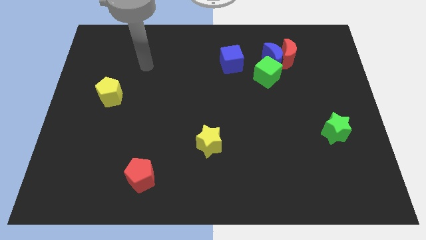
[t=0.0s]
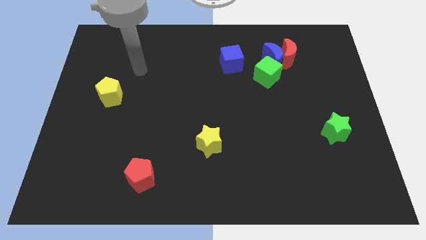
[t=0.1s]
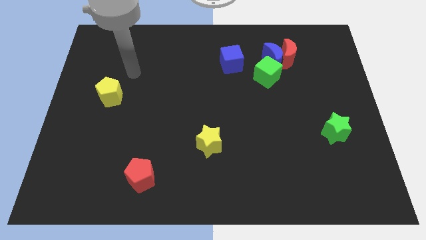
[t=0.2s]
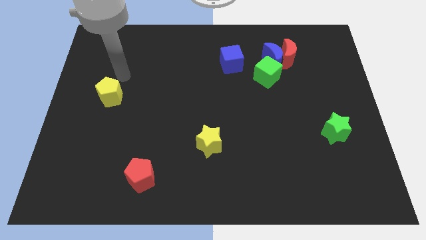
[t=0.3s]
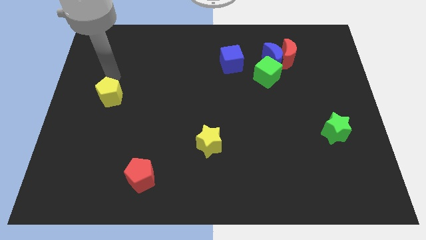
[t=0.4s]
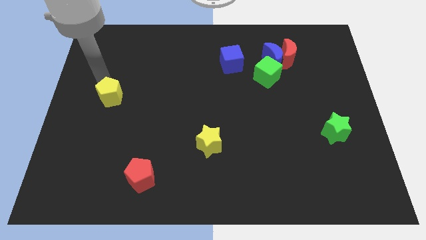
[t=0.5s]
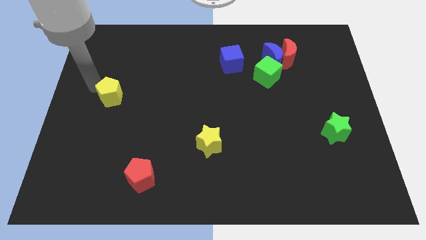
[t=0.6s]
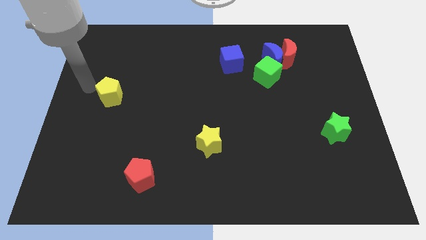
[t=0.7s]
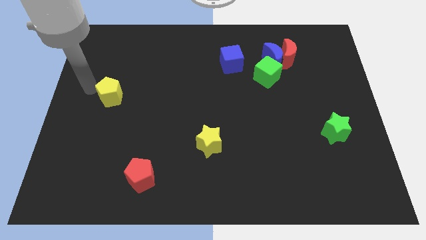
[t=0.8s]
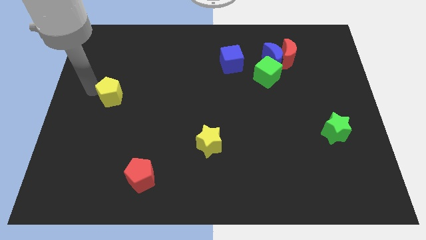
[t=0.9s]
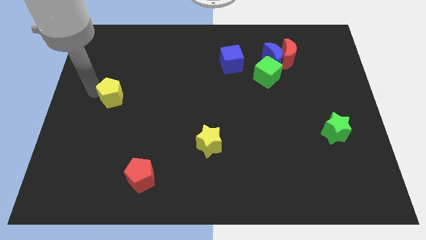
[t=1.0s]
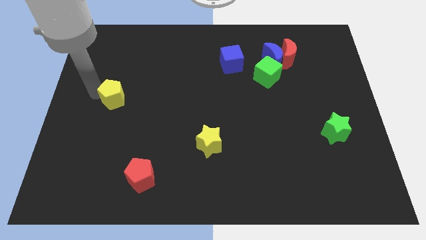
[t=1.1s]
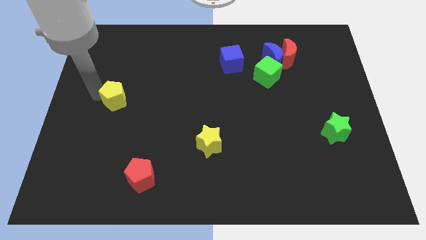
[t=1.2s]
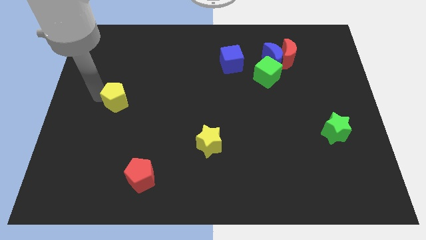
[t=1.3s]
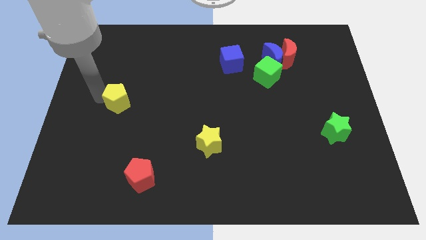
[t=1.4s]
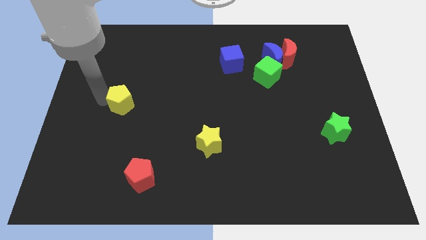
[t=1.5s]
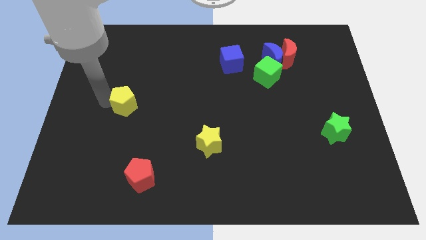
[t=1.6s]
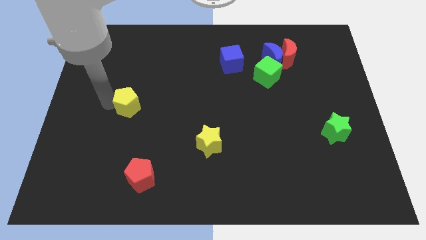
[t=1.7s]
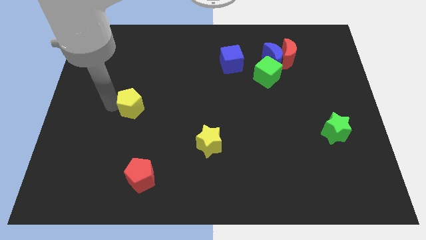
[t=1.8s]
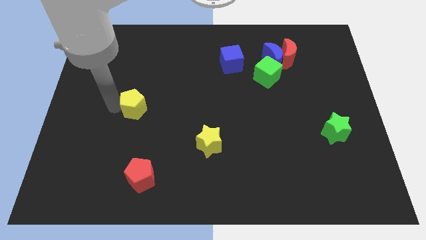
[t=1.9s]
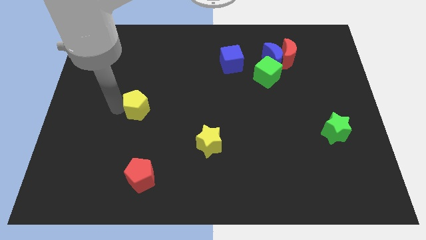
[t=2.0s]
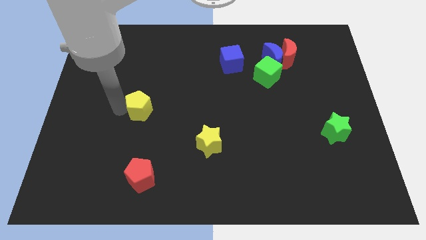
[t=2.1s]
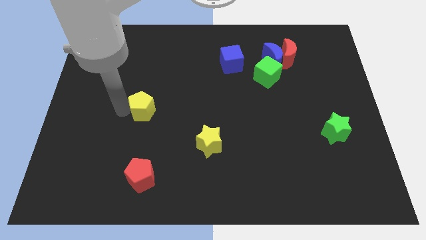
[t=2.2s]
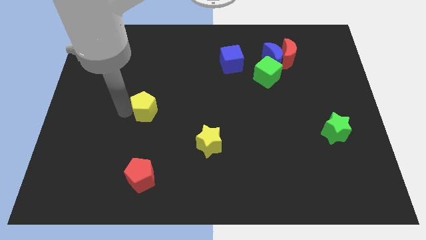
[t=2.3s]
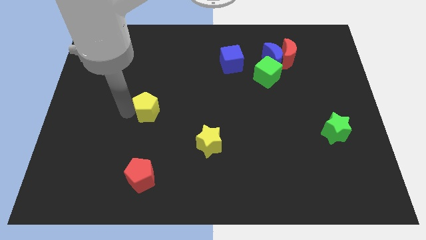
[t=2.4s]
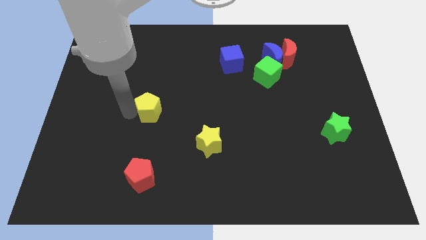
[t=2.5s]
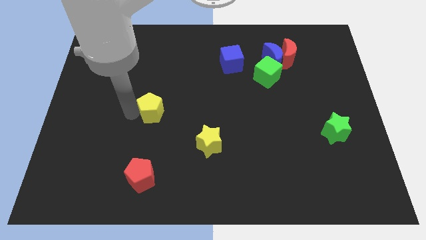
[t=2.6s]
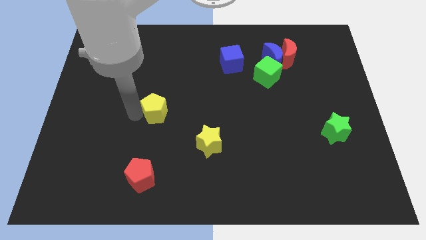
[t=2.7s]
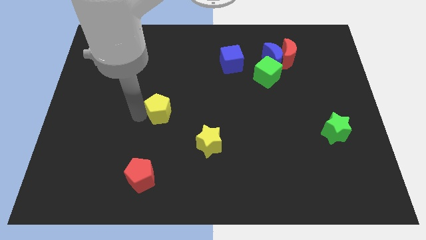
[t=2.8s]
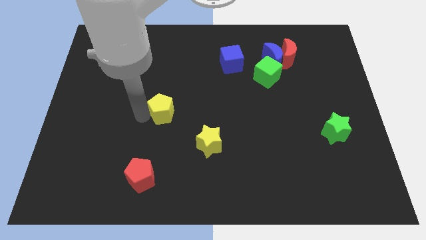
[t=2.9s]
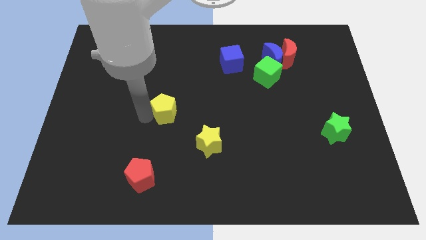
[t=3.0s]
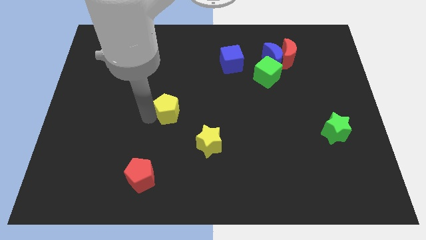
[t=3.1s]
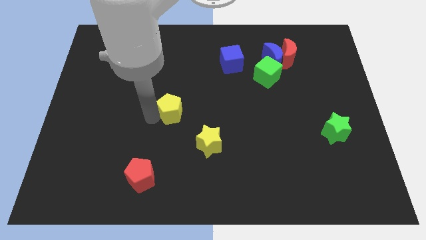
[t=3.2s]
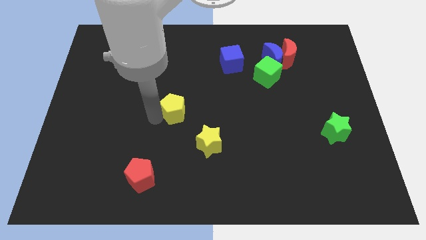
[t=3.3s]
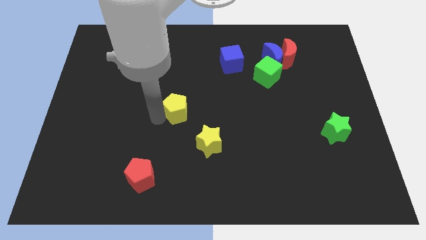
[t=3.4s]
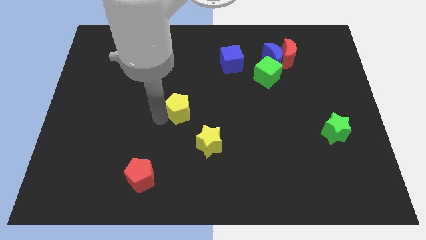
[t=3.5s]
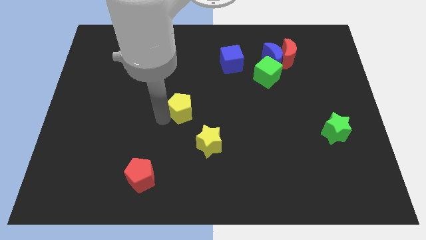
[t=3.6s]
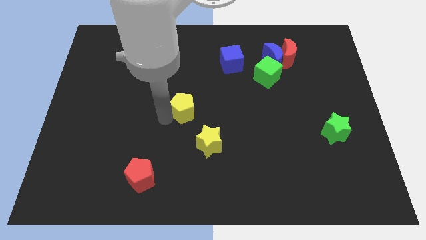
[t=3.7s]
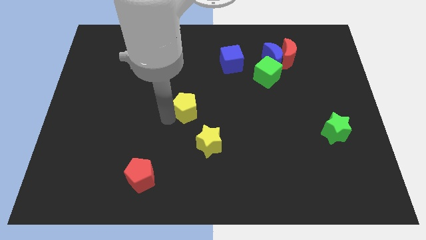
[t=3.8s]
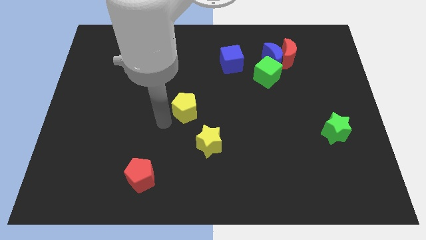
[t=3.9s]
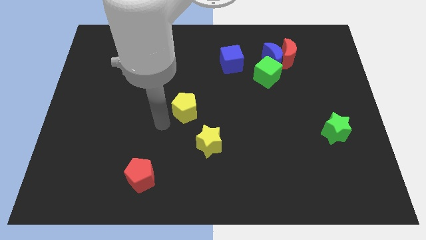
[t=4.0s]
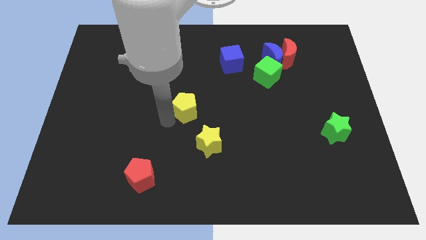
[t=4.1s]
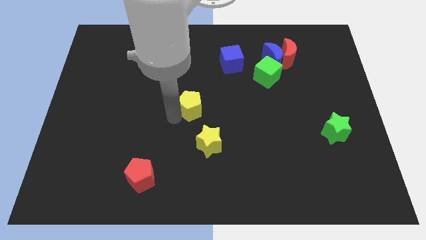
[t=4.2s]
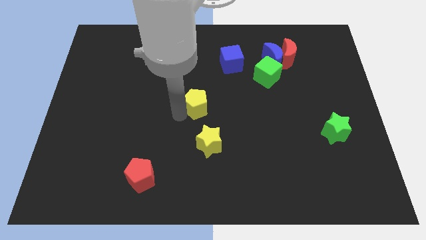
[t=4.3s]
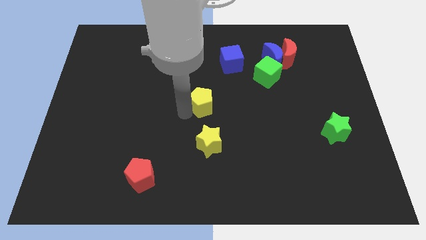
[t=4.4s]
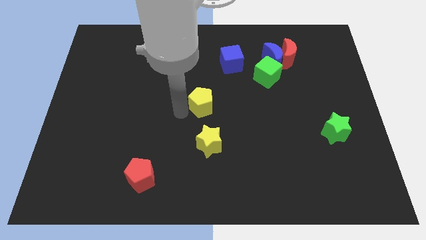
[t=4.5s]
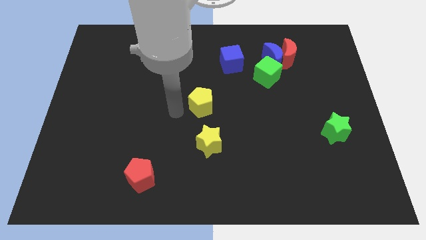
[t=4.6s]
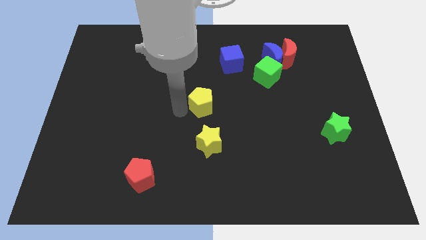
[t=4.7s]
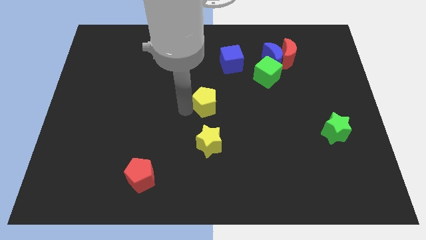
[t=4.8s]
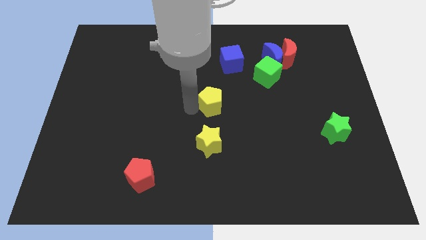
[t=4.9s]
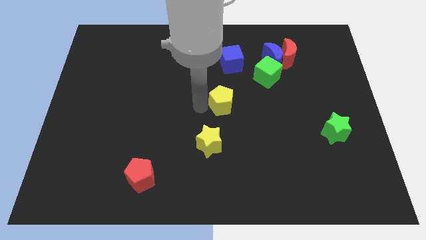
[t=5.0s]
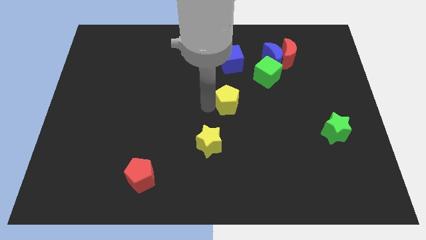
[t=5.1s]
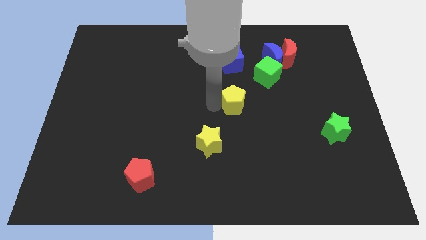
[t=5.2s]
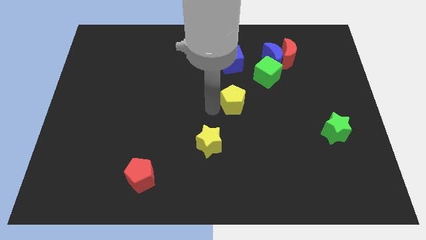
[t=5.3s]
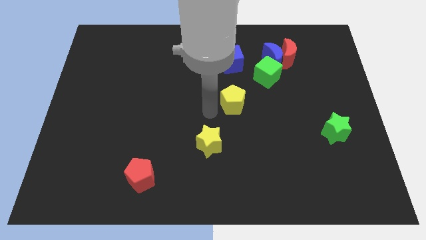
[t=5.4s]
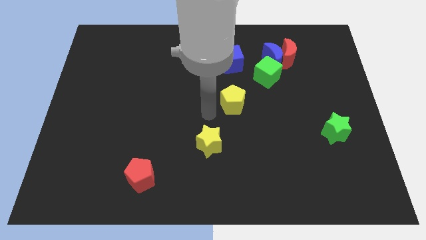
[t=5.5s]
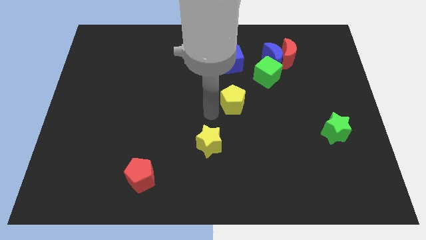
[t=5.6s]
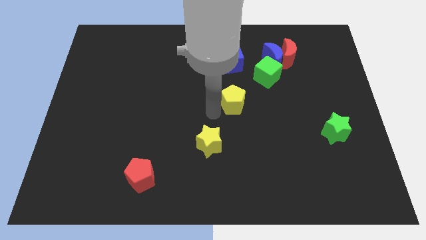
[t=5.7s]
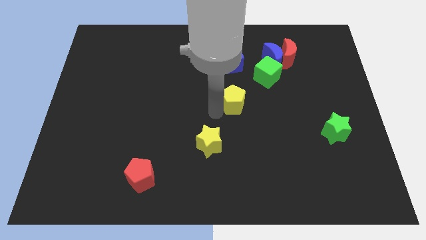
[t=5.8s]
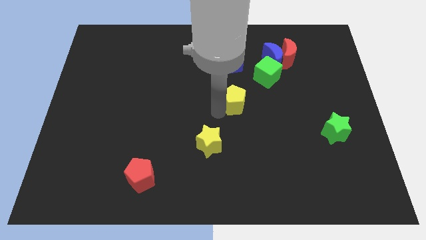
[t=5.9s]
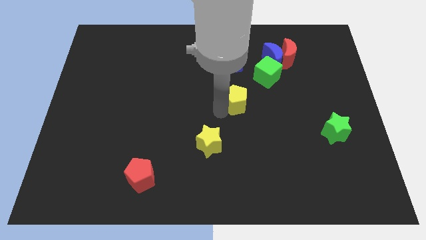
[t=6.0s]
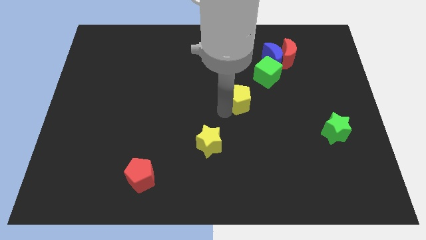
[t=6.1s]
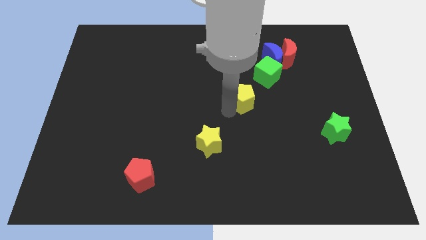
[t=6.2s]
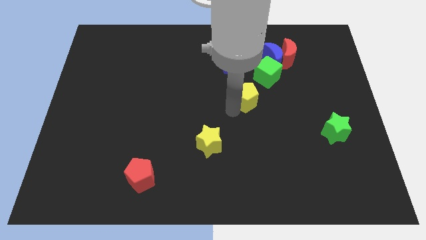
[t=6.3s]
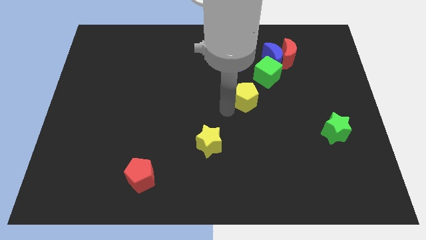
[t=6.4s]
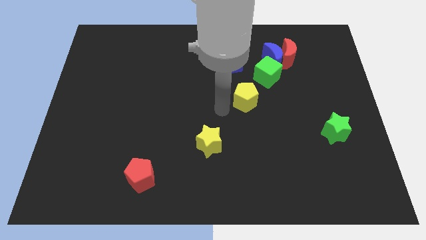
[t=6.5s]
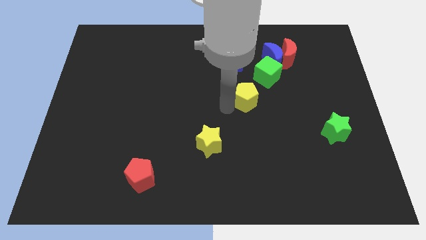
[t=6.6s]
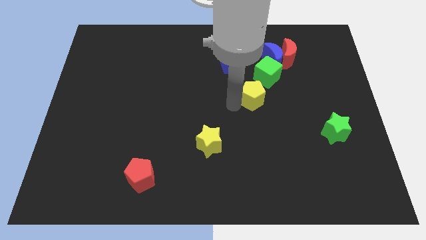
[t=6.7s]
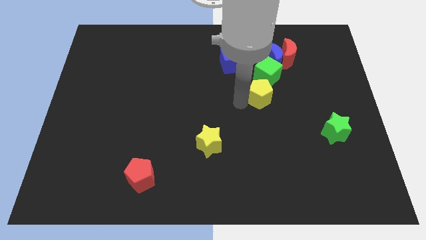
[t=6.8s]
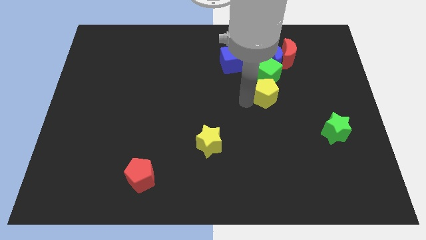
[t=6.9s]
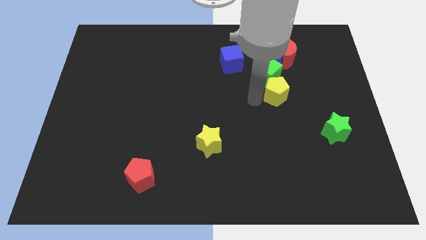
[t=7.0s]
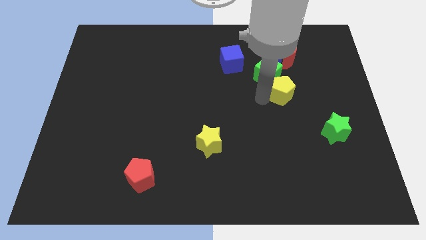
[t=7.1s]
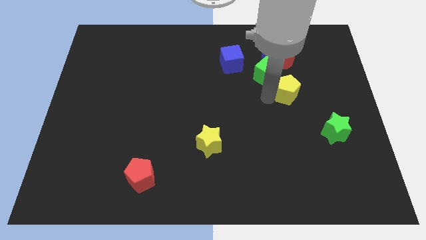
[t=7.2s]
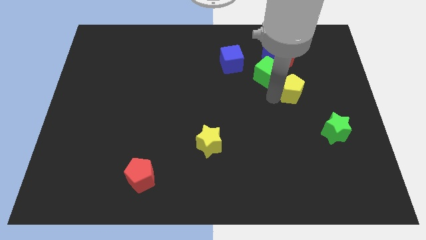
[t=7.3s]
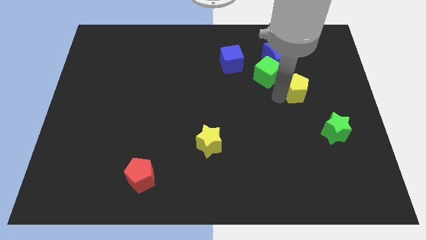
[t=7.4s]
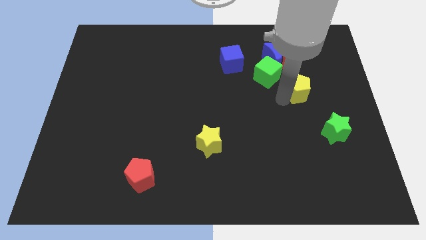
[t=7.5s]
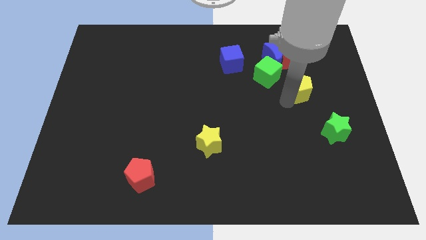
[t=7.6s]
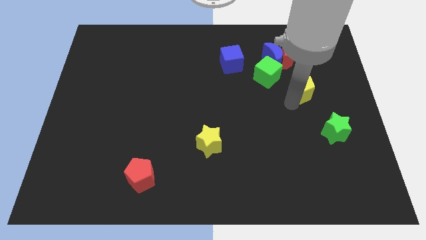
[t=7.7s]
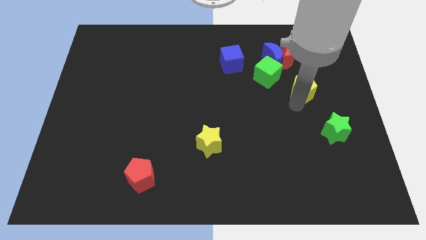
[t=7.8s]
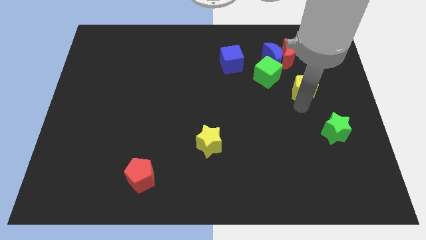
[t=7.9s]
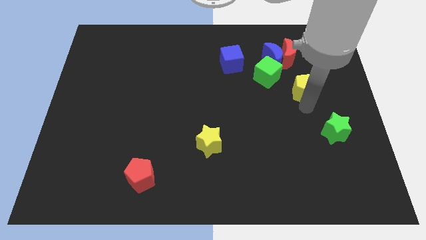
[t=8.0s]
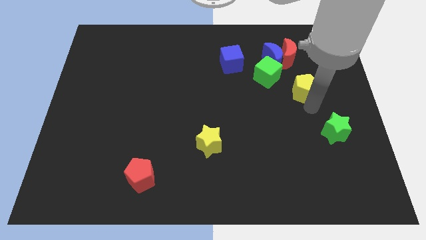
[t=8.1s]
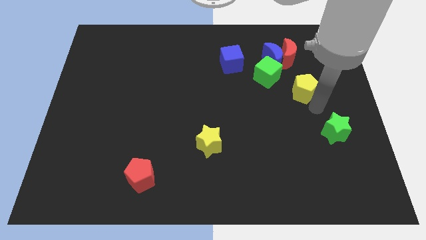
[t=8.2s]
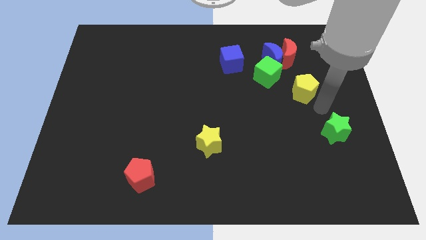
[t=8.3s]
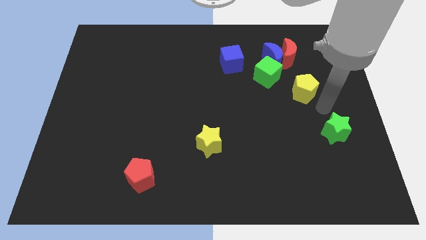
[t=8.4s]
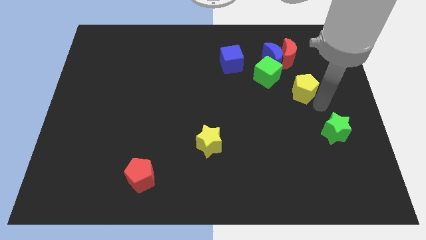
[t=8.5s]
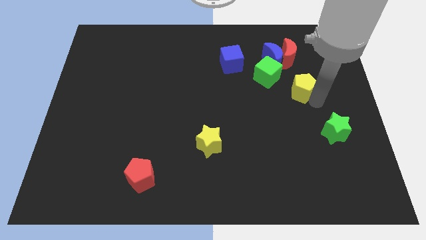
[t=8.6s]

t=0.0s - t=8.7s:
slide the yellow pentagon right of the green cube
